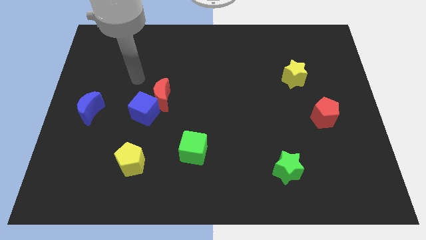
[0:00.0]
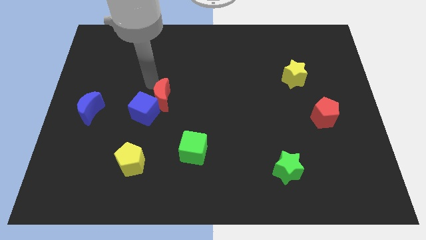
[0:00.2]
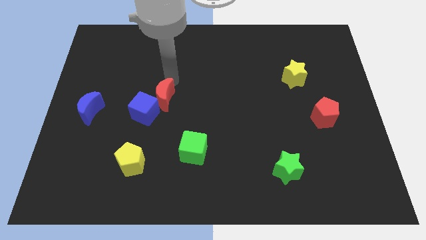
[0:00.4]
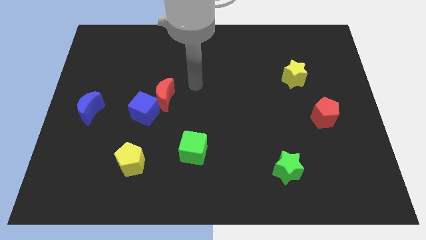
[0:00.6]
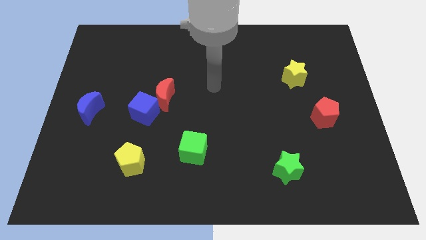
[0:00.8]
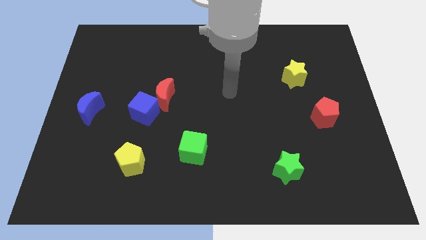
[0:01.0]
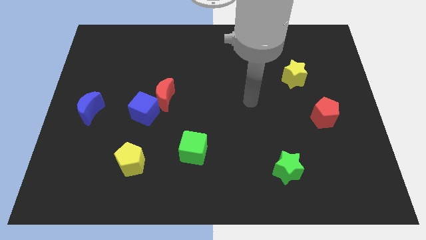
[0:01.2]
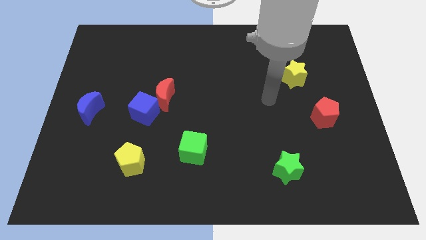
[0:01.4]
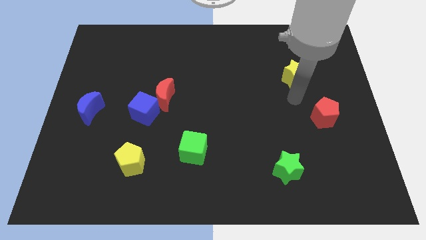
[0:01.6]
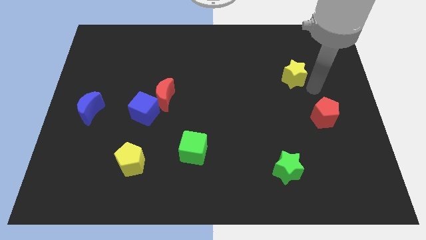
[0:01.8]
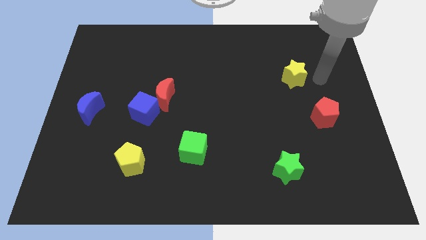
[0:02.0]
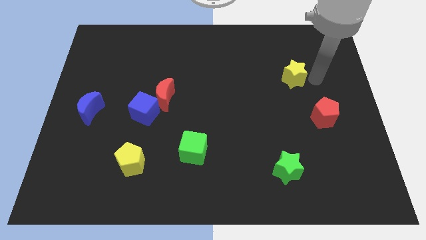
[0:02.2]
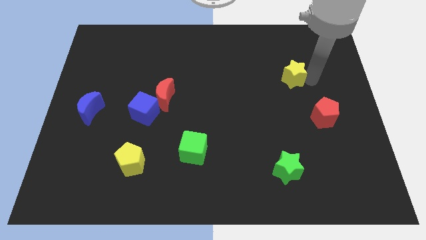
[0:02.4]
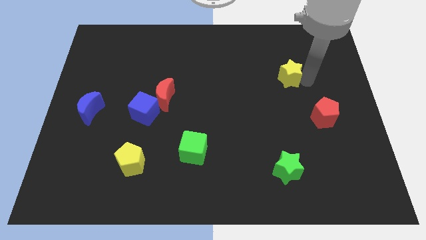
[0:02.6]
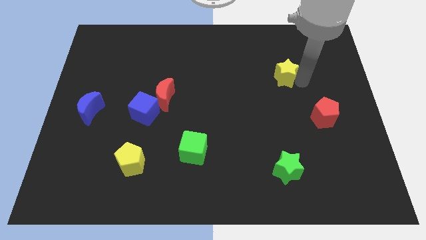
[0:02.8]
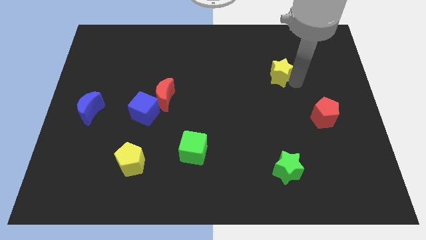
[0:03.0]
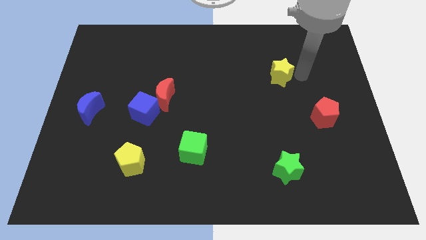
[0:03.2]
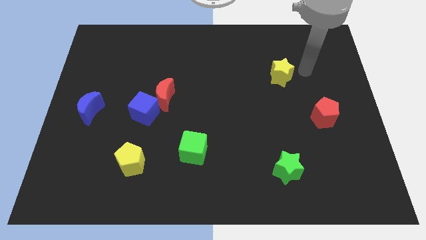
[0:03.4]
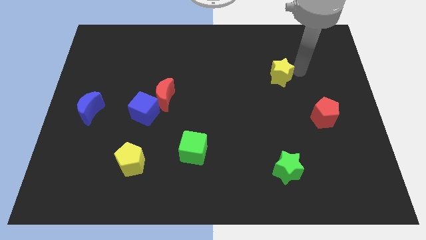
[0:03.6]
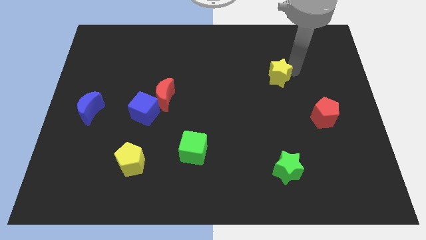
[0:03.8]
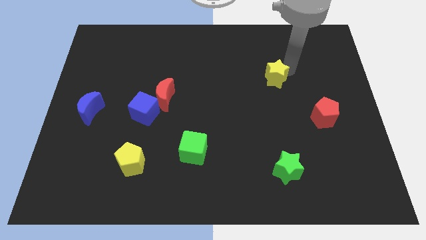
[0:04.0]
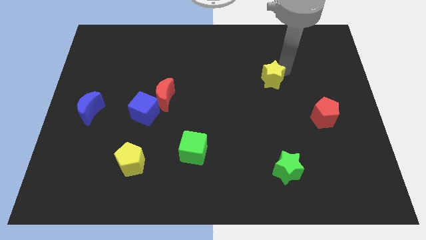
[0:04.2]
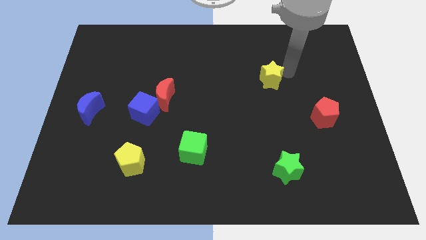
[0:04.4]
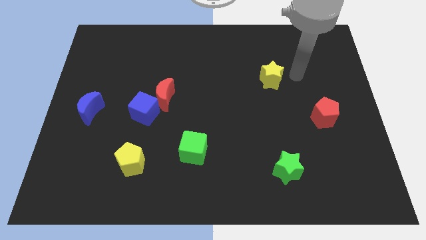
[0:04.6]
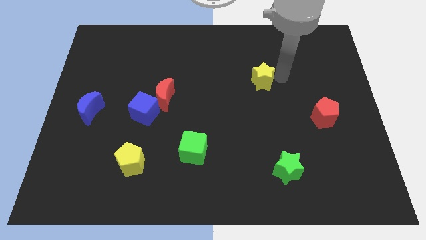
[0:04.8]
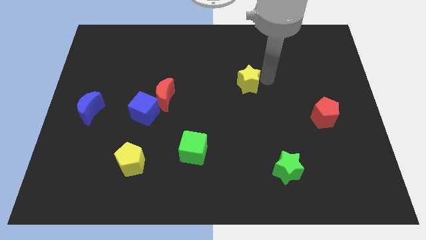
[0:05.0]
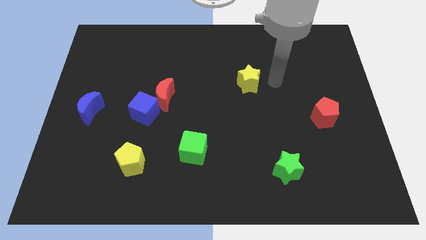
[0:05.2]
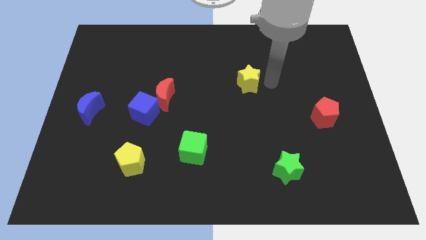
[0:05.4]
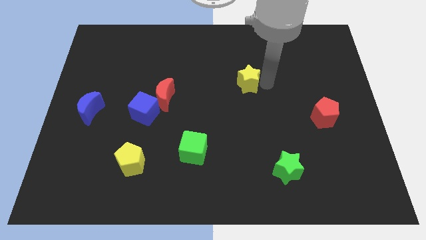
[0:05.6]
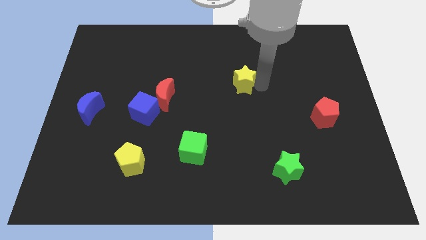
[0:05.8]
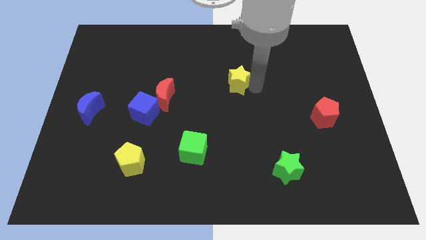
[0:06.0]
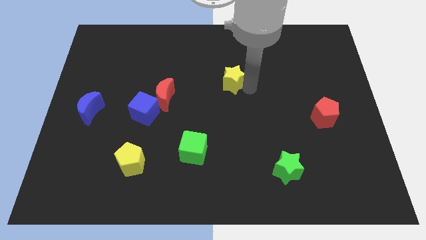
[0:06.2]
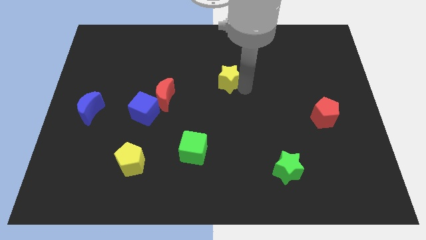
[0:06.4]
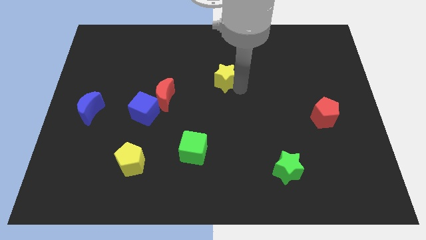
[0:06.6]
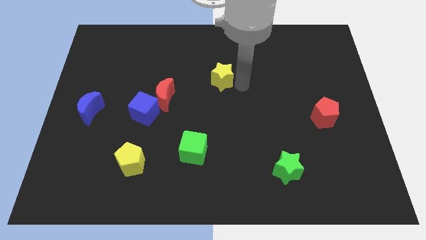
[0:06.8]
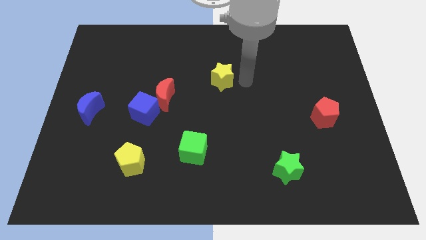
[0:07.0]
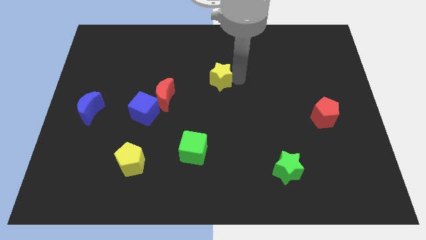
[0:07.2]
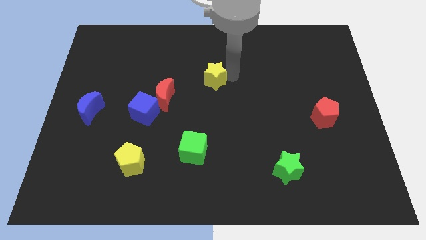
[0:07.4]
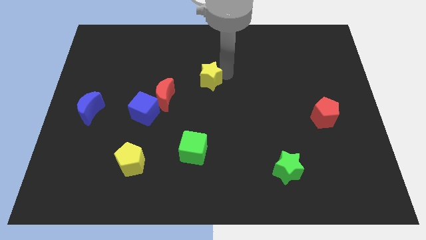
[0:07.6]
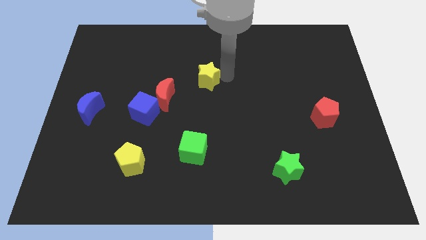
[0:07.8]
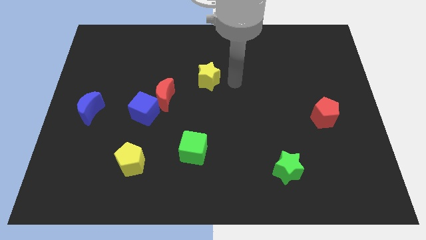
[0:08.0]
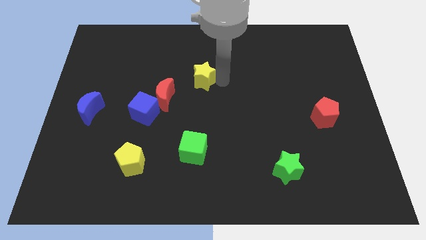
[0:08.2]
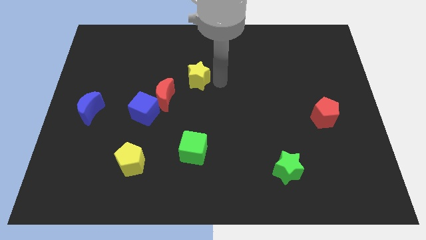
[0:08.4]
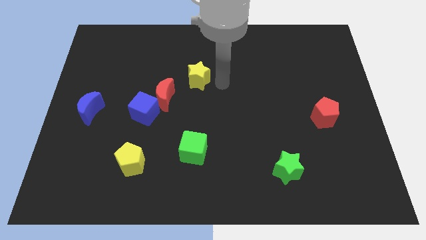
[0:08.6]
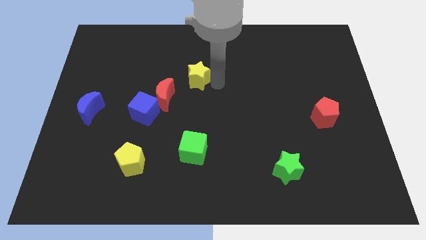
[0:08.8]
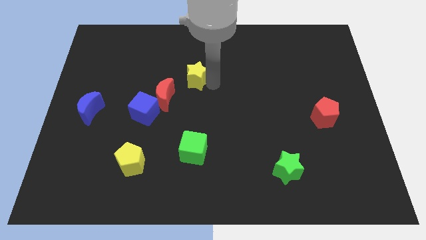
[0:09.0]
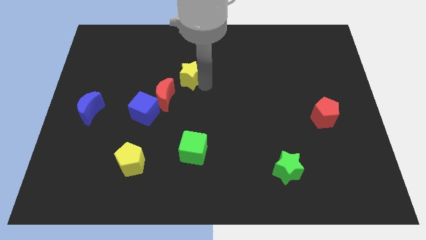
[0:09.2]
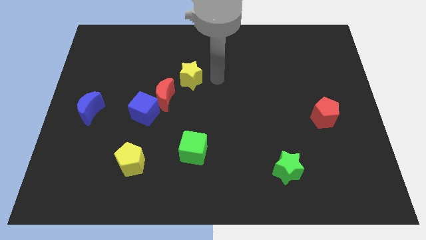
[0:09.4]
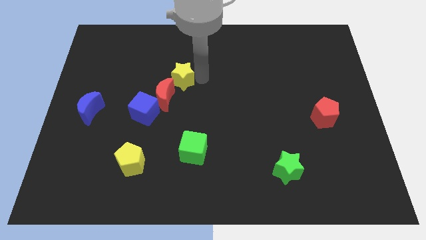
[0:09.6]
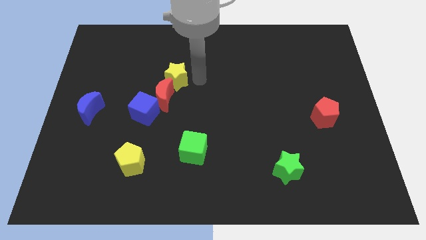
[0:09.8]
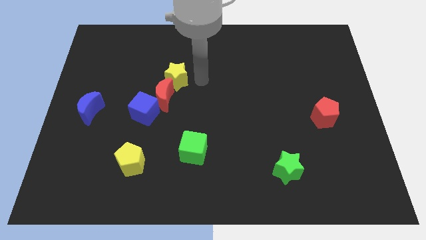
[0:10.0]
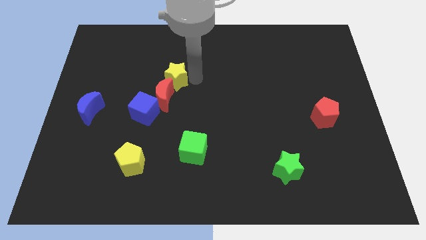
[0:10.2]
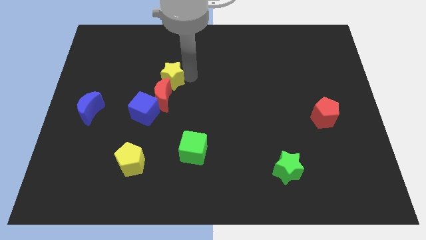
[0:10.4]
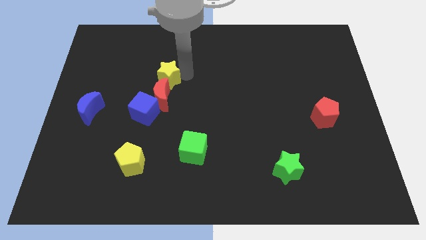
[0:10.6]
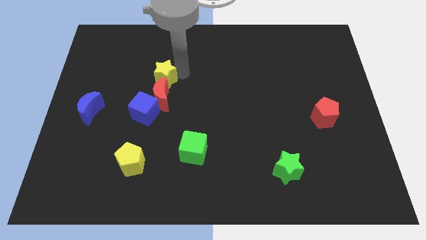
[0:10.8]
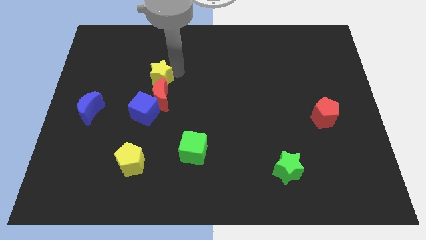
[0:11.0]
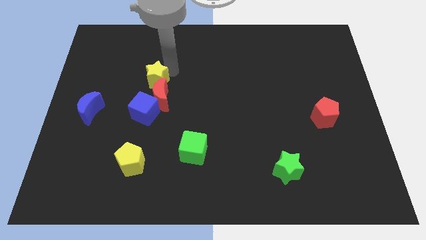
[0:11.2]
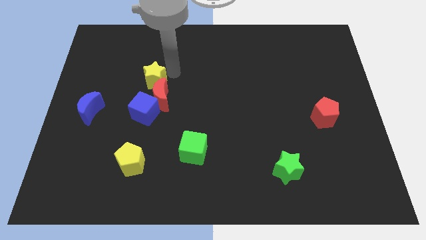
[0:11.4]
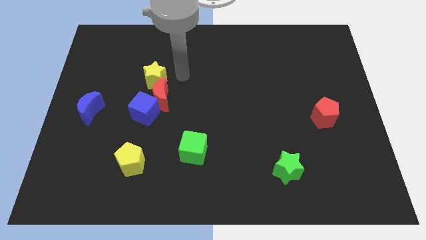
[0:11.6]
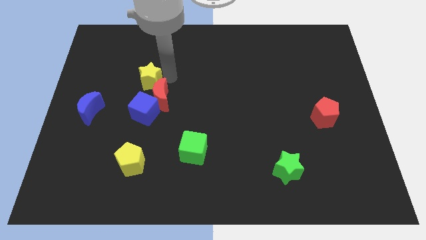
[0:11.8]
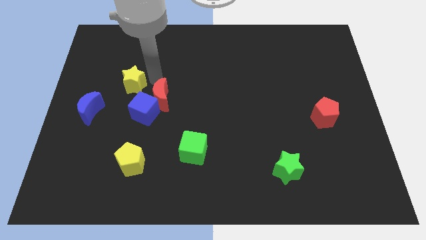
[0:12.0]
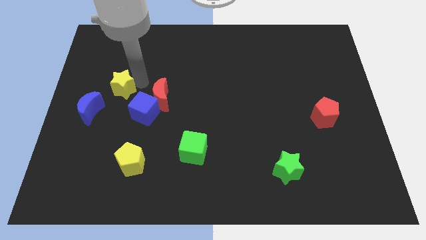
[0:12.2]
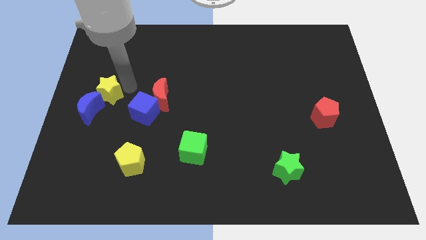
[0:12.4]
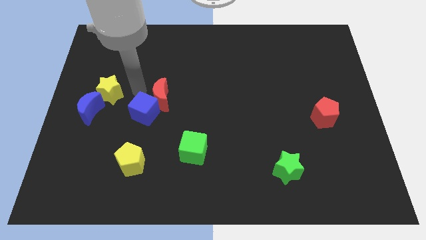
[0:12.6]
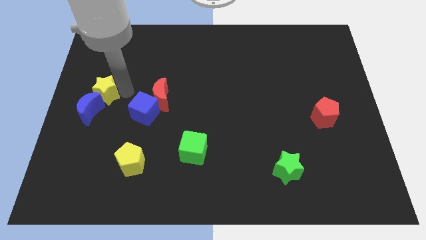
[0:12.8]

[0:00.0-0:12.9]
slide the yellow star to the left side
